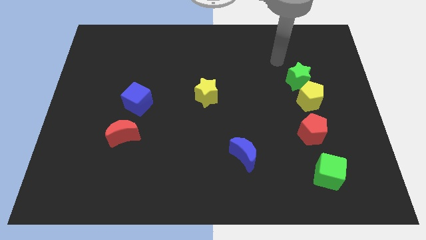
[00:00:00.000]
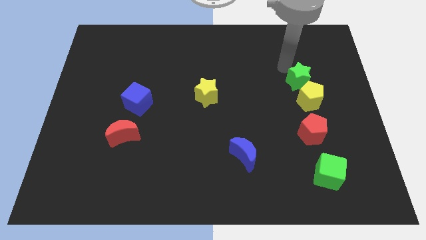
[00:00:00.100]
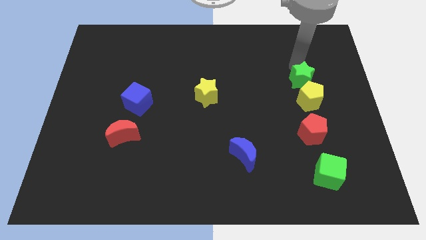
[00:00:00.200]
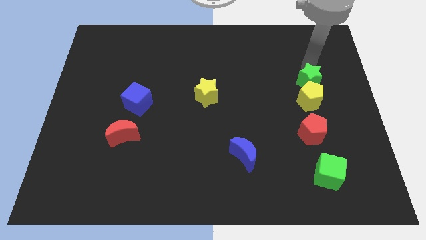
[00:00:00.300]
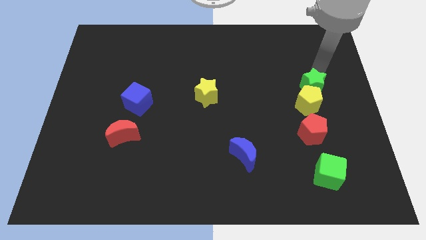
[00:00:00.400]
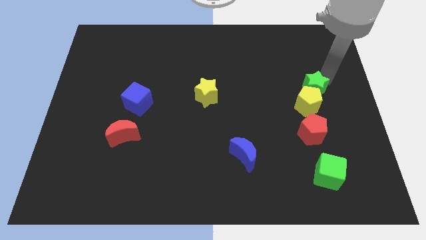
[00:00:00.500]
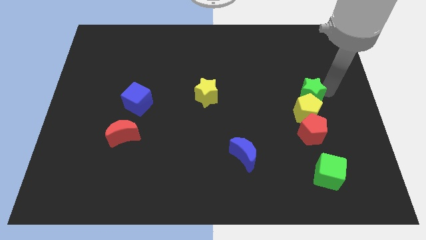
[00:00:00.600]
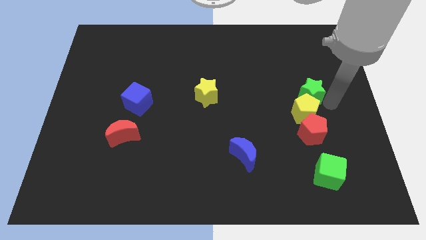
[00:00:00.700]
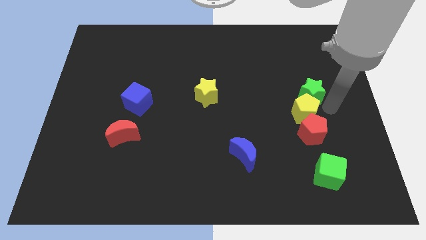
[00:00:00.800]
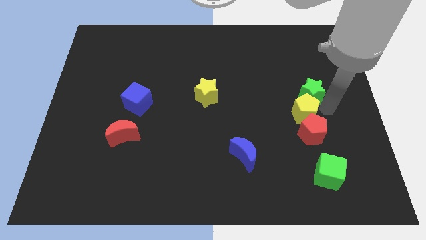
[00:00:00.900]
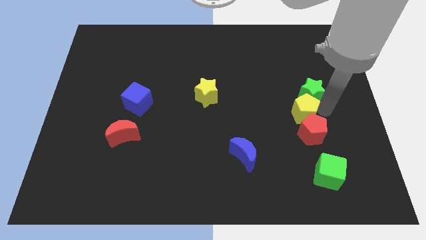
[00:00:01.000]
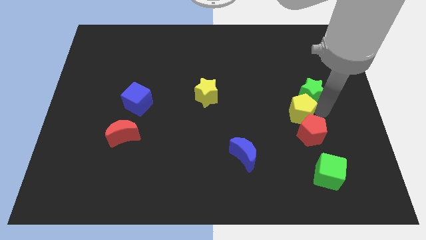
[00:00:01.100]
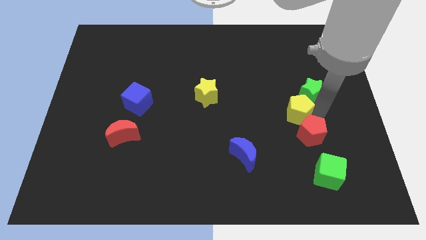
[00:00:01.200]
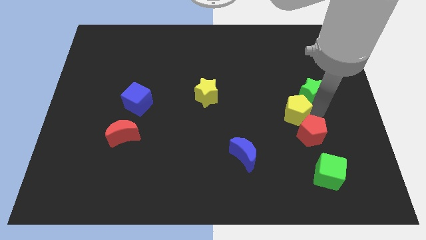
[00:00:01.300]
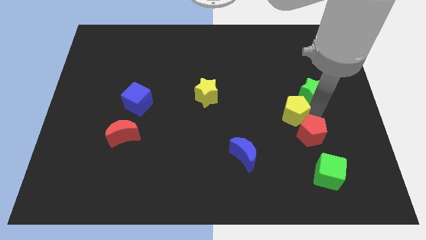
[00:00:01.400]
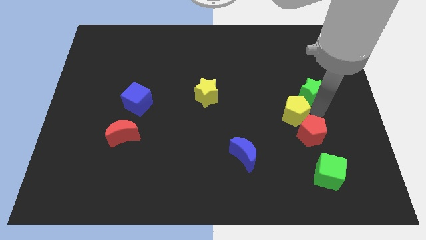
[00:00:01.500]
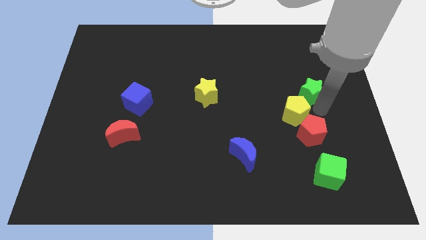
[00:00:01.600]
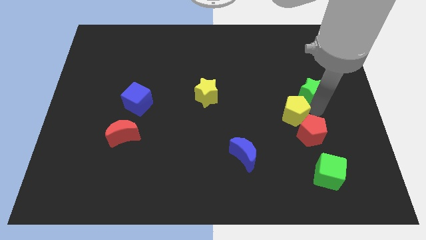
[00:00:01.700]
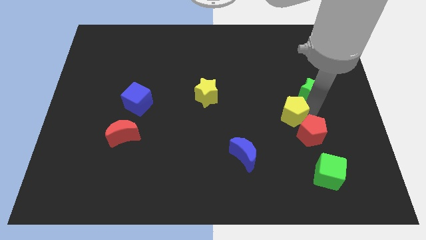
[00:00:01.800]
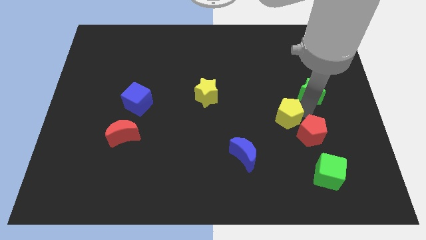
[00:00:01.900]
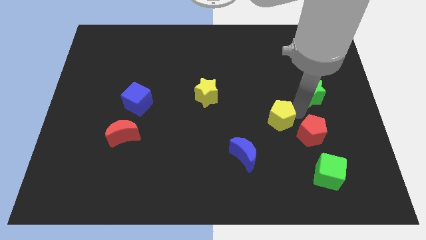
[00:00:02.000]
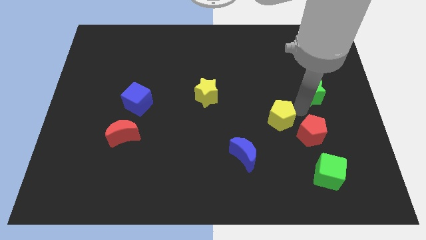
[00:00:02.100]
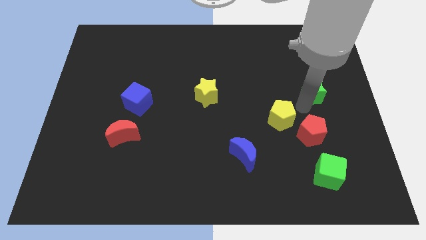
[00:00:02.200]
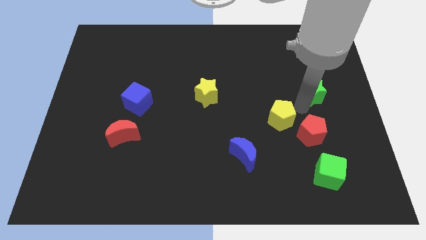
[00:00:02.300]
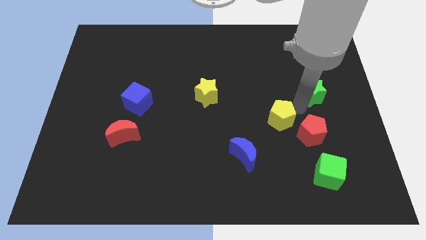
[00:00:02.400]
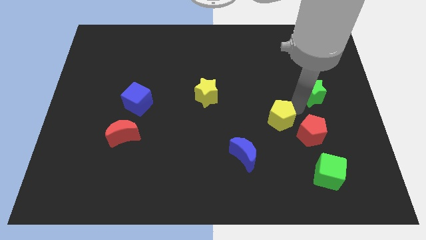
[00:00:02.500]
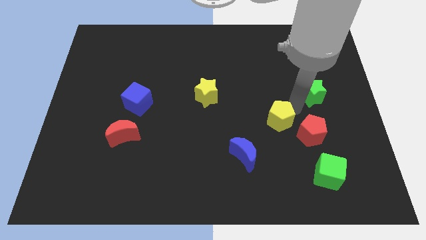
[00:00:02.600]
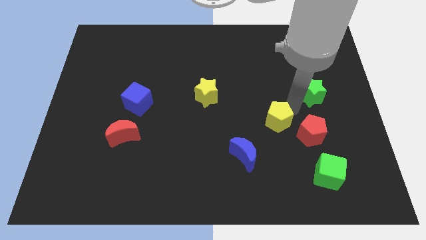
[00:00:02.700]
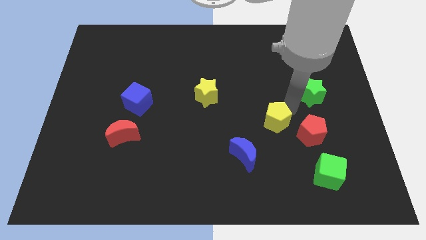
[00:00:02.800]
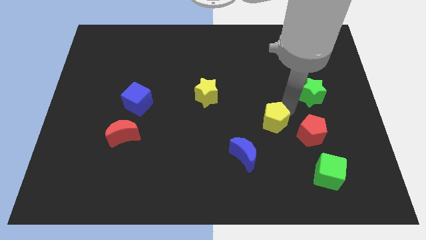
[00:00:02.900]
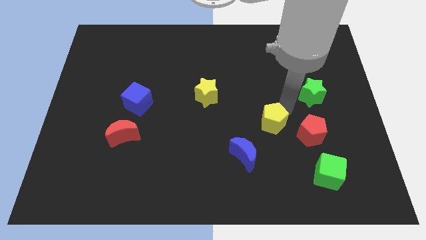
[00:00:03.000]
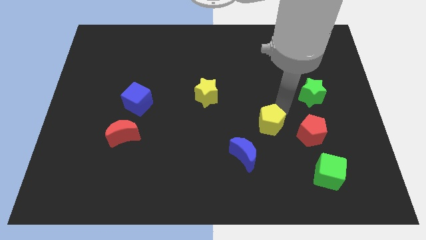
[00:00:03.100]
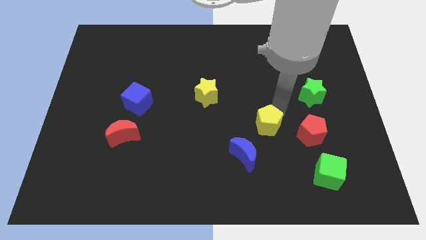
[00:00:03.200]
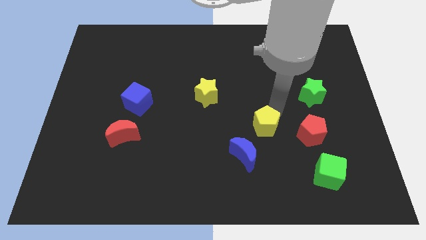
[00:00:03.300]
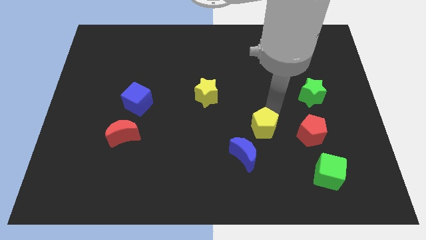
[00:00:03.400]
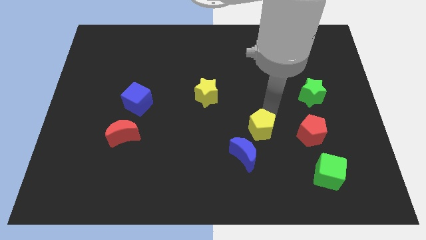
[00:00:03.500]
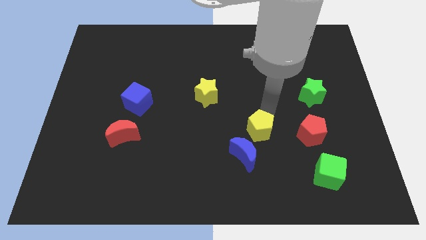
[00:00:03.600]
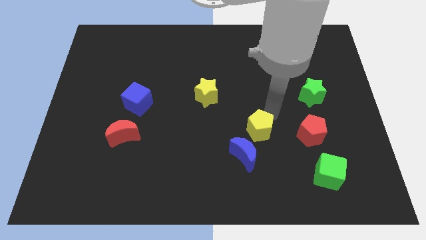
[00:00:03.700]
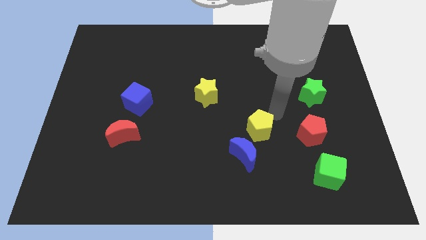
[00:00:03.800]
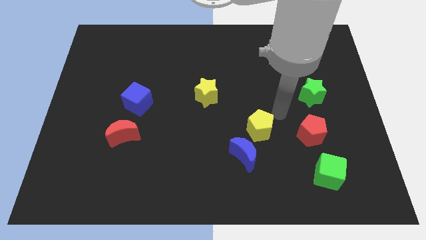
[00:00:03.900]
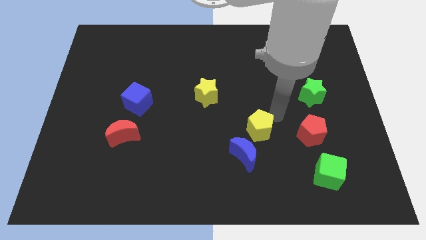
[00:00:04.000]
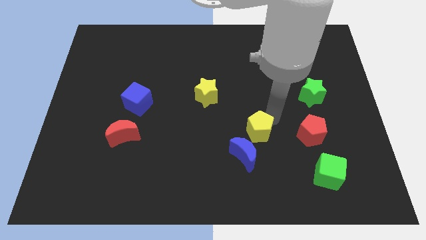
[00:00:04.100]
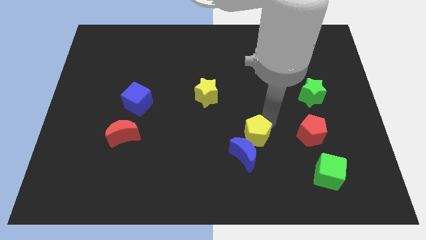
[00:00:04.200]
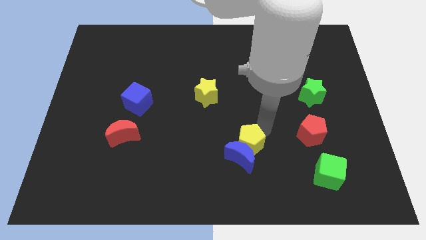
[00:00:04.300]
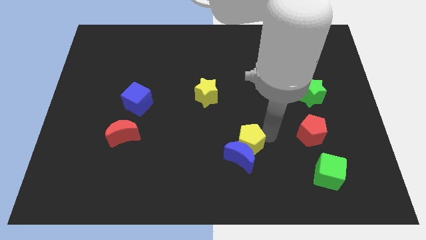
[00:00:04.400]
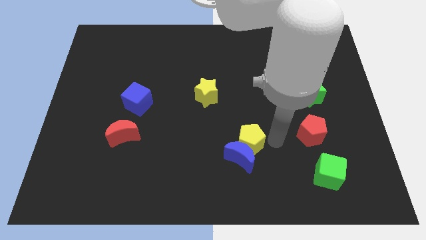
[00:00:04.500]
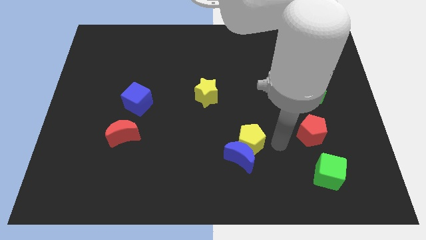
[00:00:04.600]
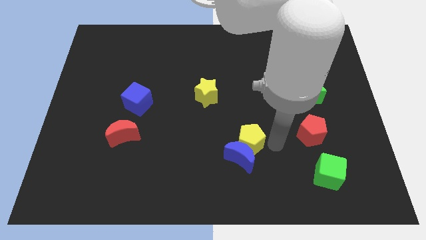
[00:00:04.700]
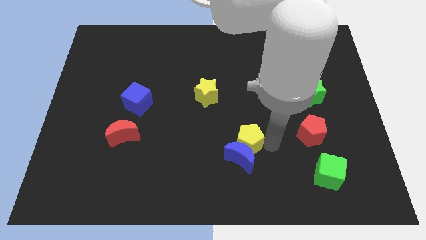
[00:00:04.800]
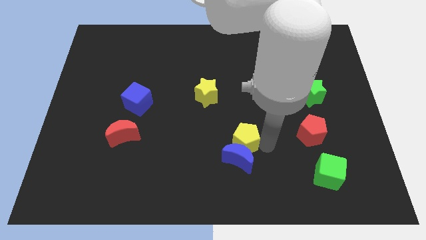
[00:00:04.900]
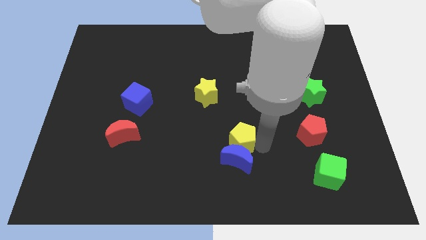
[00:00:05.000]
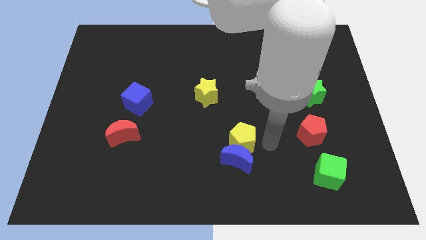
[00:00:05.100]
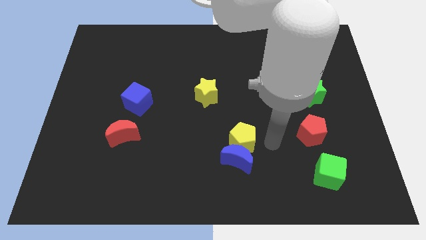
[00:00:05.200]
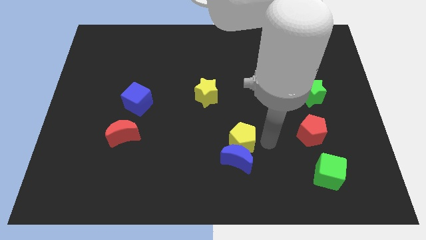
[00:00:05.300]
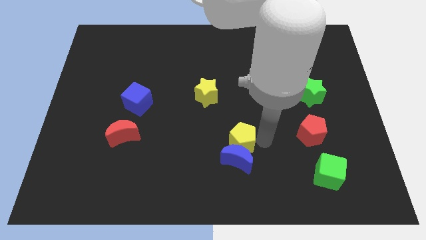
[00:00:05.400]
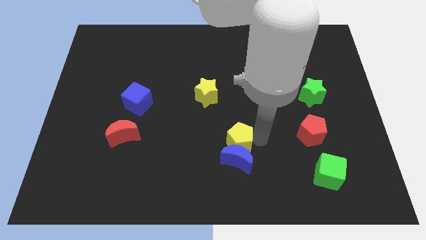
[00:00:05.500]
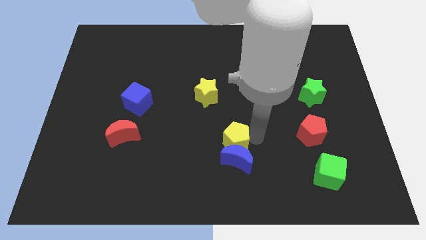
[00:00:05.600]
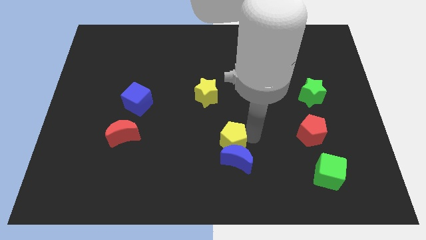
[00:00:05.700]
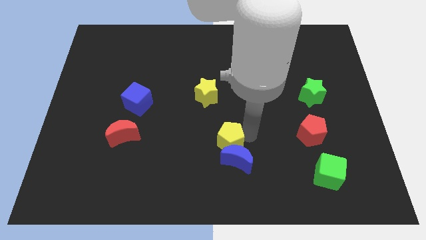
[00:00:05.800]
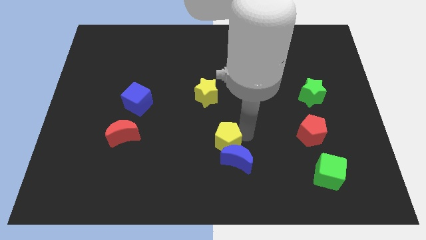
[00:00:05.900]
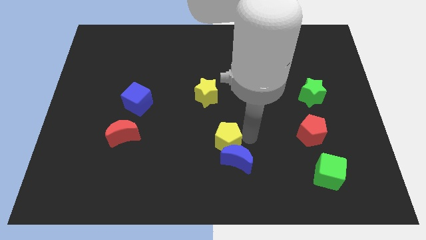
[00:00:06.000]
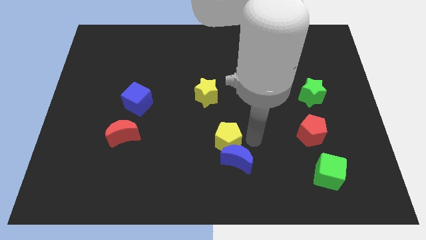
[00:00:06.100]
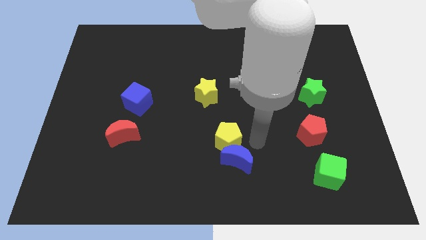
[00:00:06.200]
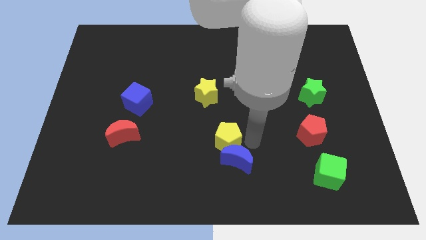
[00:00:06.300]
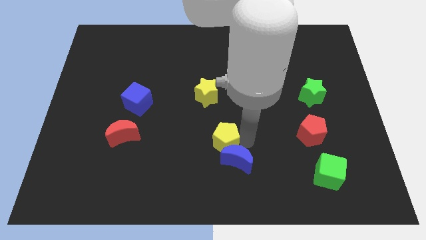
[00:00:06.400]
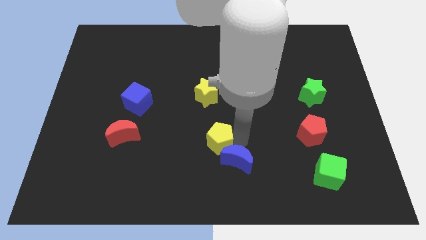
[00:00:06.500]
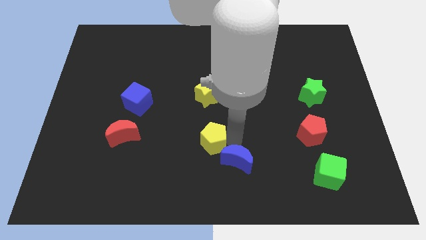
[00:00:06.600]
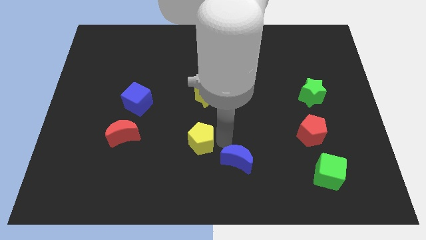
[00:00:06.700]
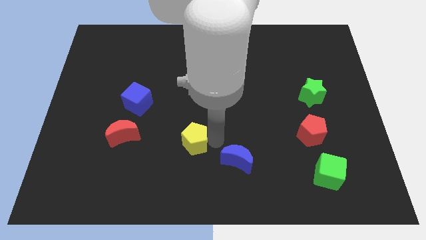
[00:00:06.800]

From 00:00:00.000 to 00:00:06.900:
push the yellow pentagon just right of the red moon
